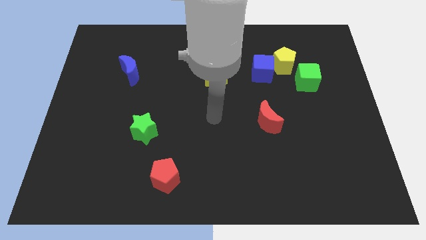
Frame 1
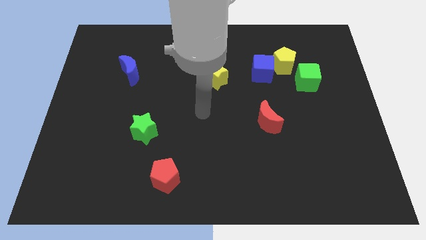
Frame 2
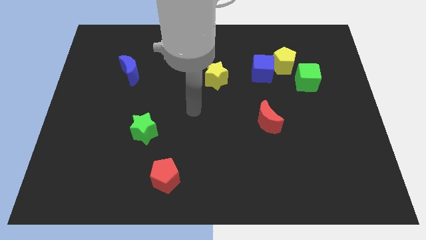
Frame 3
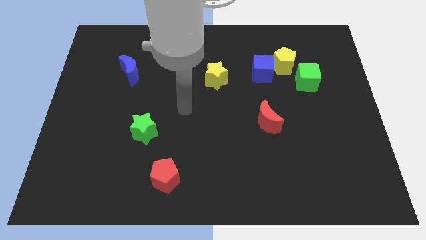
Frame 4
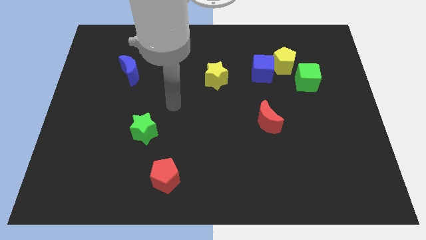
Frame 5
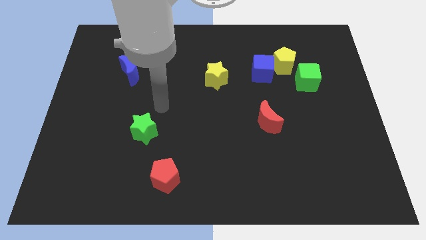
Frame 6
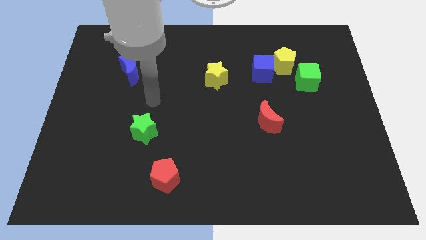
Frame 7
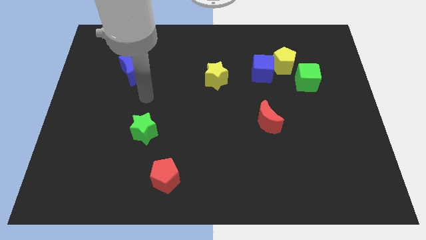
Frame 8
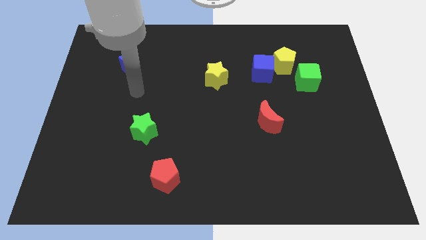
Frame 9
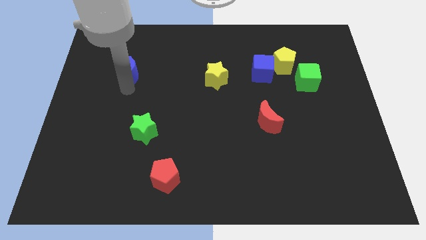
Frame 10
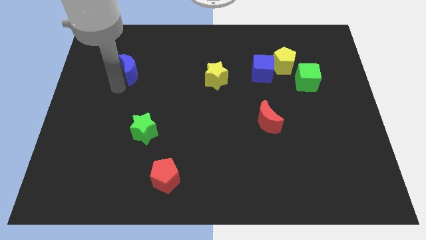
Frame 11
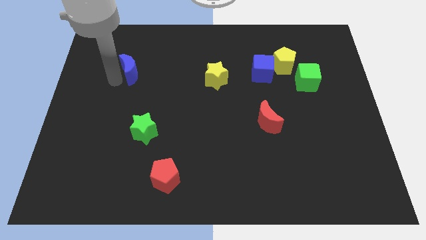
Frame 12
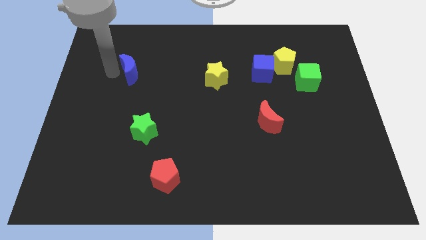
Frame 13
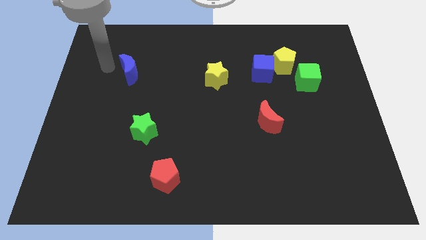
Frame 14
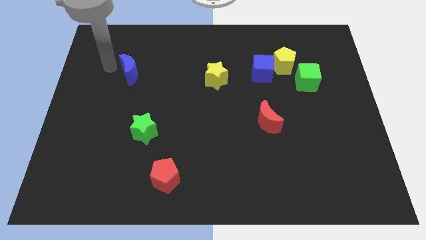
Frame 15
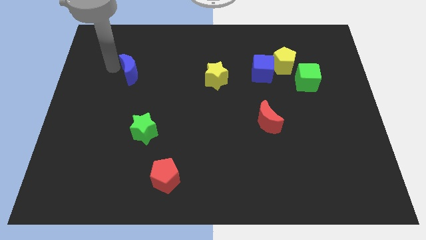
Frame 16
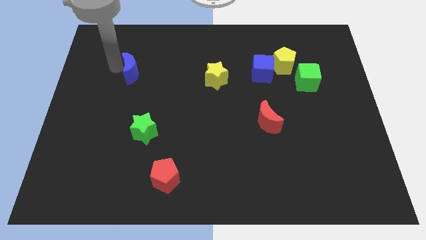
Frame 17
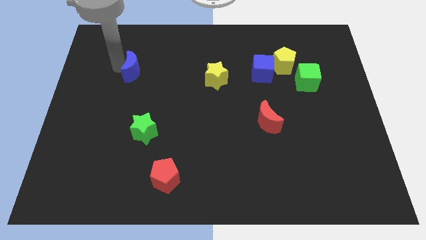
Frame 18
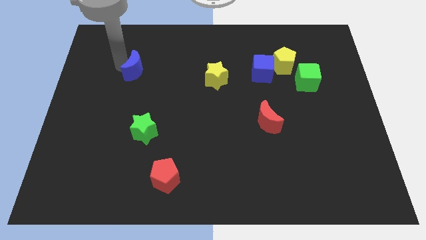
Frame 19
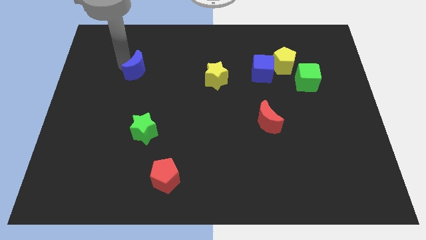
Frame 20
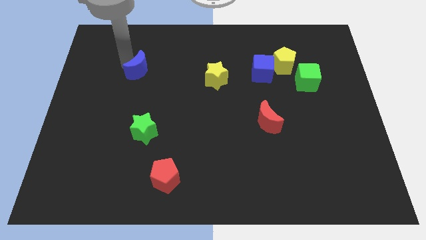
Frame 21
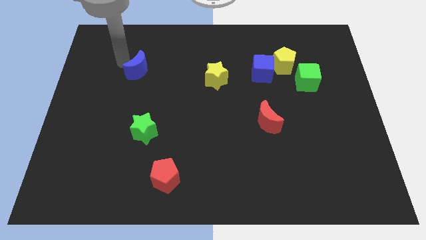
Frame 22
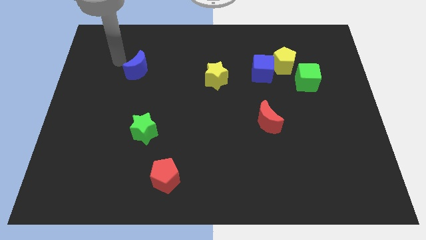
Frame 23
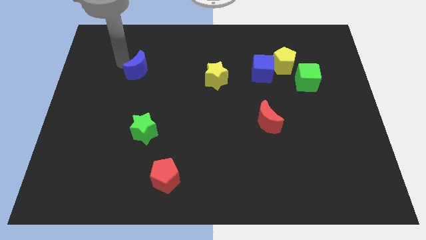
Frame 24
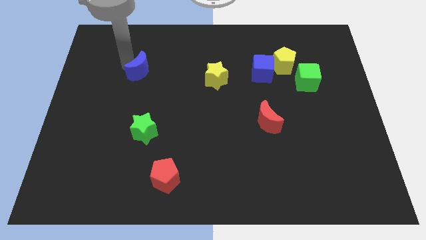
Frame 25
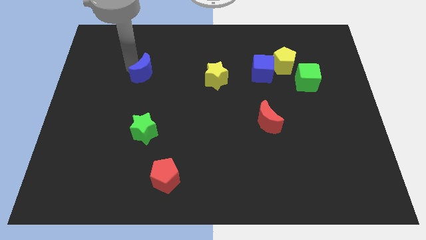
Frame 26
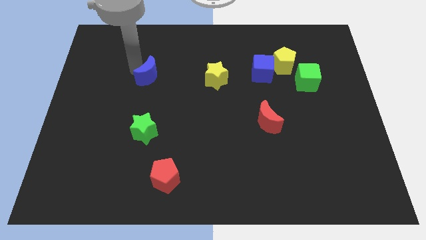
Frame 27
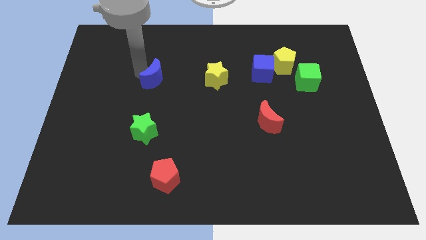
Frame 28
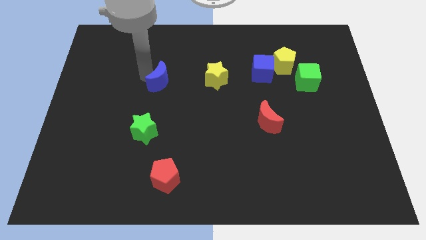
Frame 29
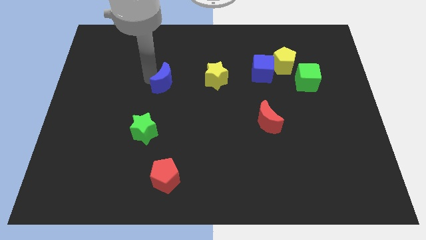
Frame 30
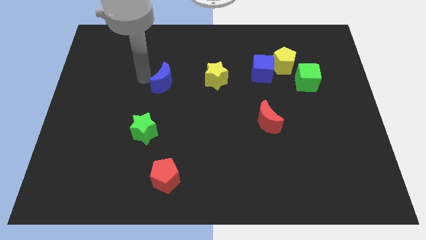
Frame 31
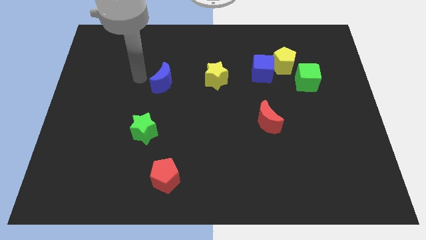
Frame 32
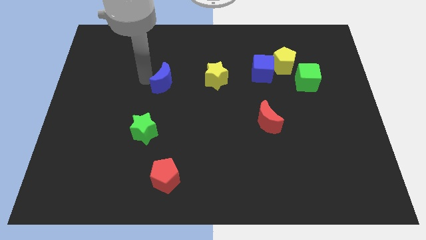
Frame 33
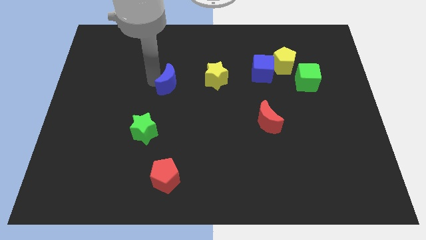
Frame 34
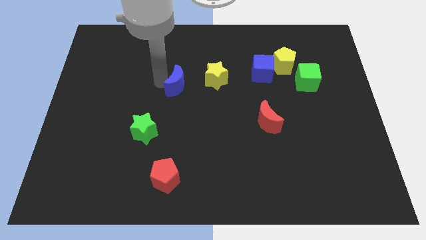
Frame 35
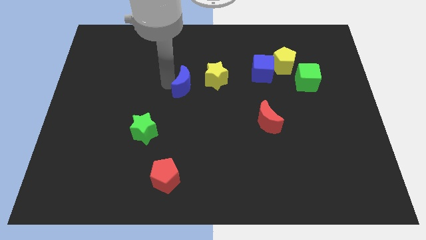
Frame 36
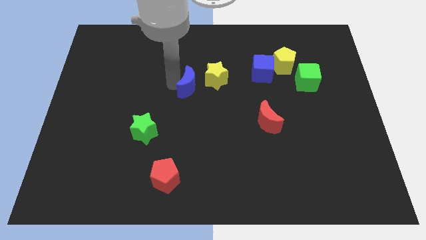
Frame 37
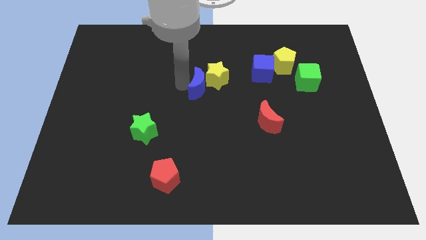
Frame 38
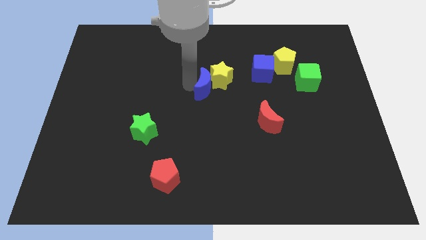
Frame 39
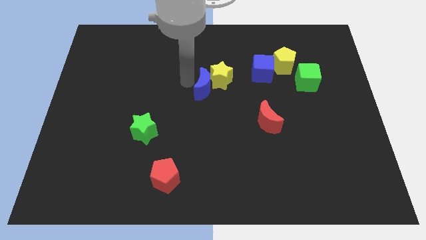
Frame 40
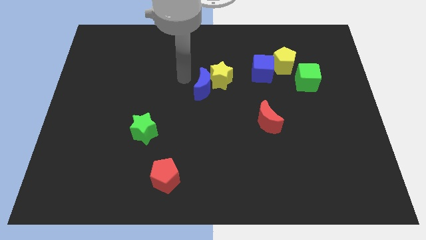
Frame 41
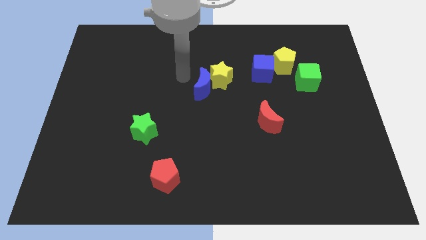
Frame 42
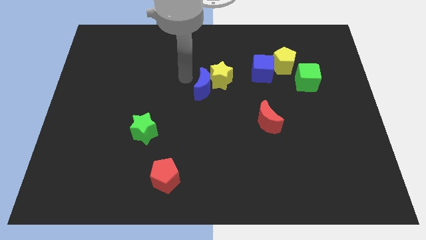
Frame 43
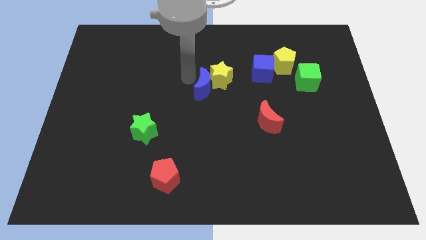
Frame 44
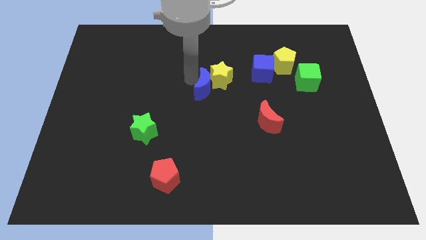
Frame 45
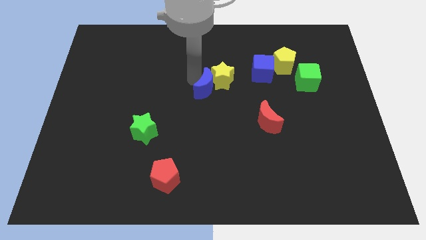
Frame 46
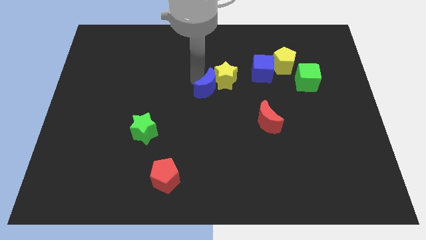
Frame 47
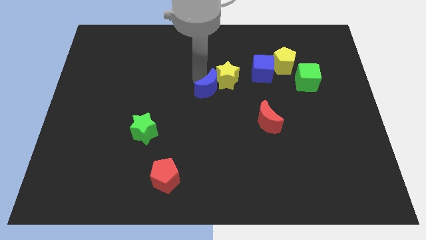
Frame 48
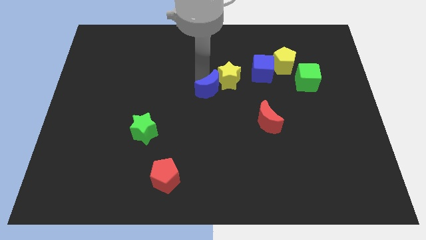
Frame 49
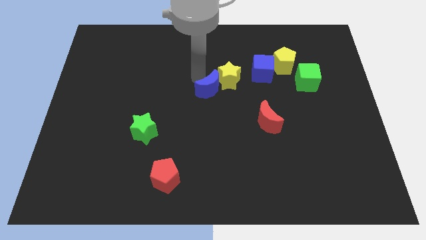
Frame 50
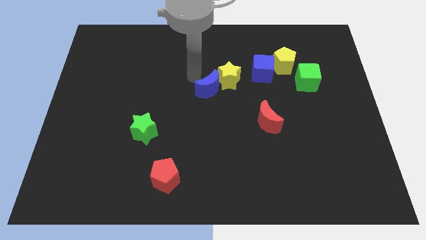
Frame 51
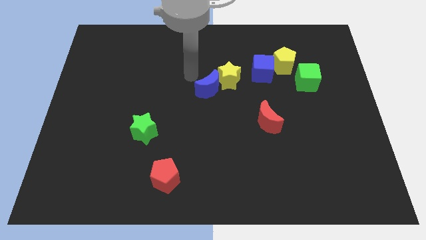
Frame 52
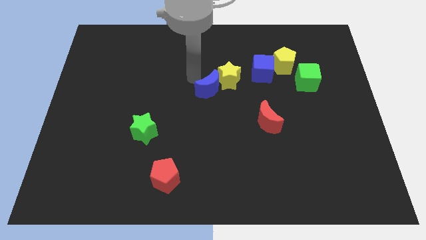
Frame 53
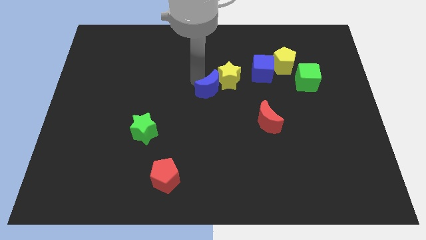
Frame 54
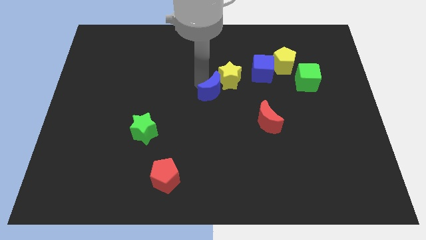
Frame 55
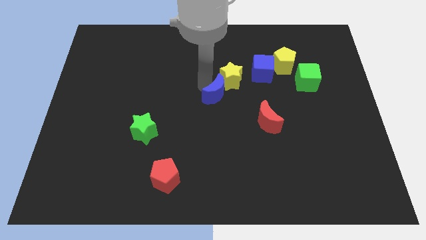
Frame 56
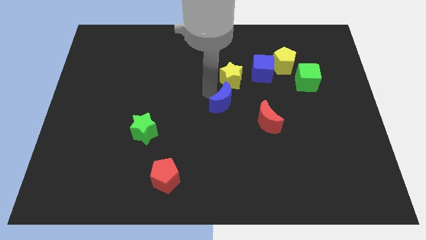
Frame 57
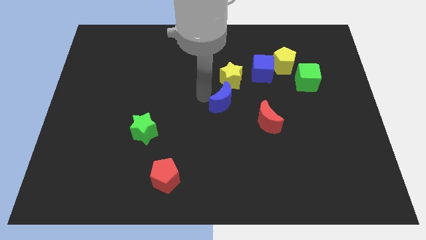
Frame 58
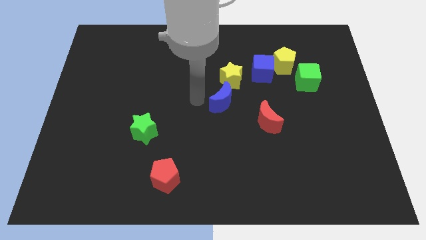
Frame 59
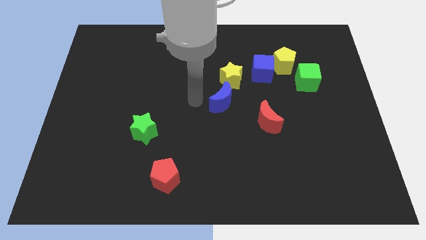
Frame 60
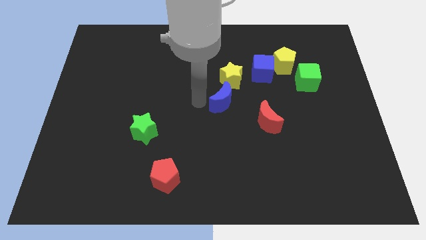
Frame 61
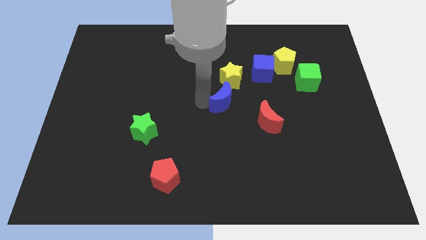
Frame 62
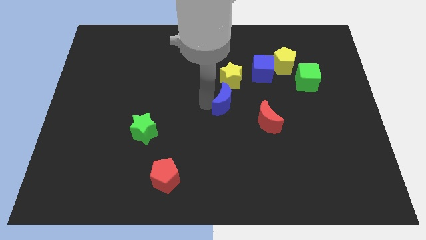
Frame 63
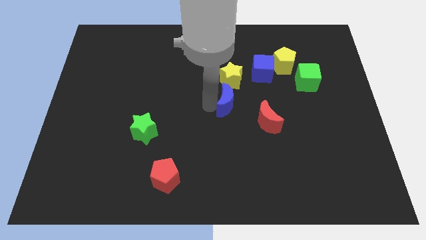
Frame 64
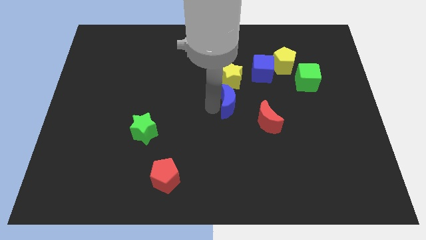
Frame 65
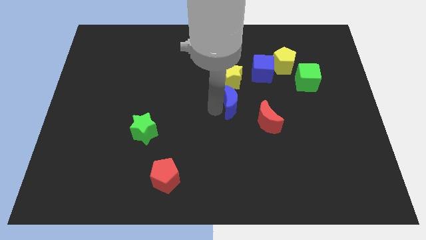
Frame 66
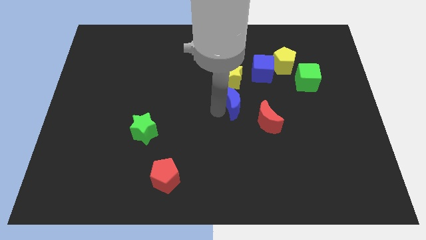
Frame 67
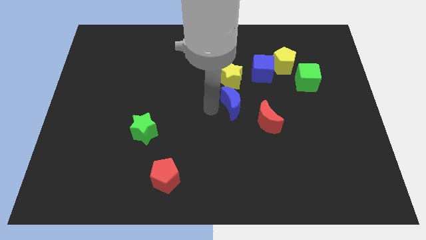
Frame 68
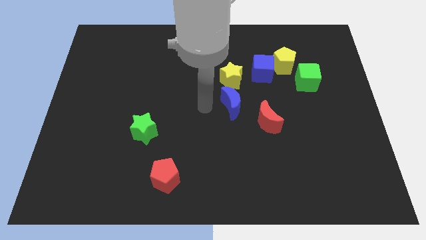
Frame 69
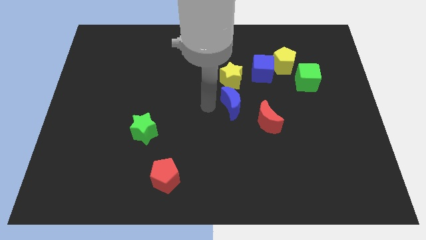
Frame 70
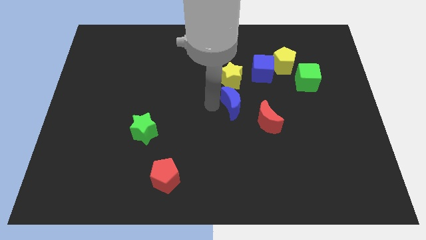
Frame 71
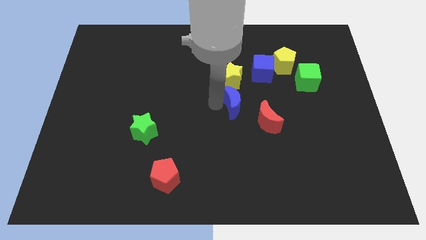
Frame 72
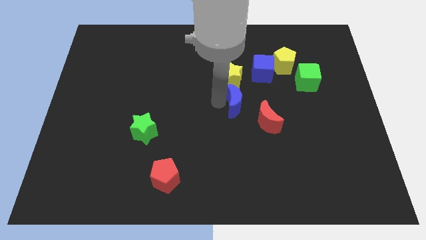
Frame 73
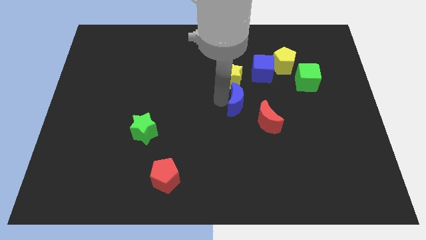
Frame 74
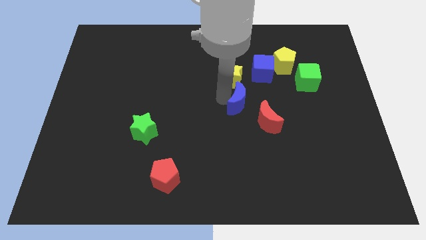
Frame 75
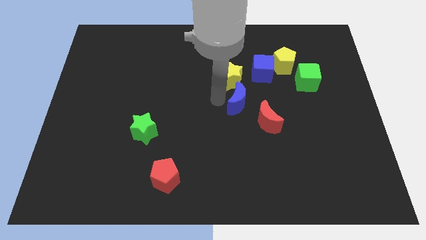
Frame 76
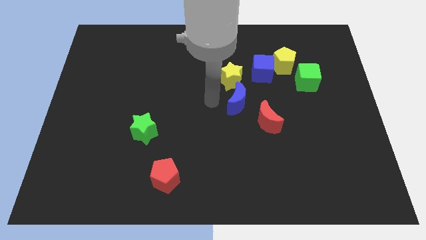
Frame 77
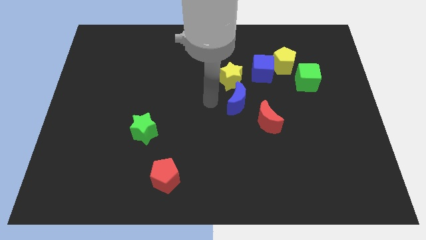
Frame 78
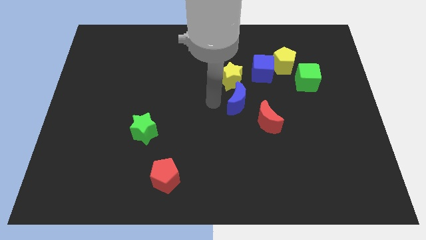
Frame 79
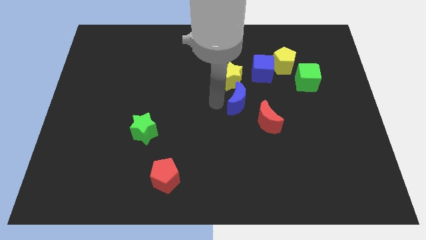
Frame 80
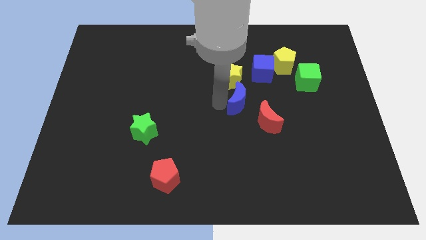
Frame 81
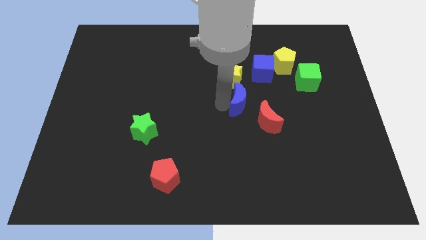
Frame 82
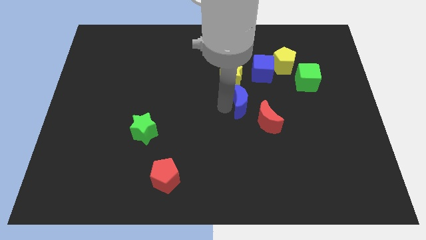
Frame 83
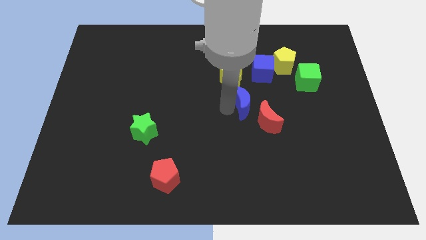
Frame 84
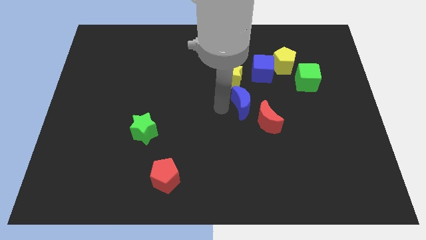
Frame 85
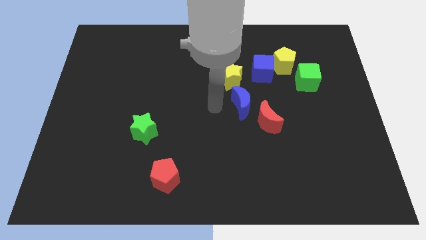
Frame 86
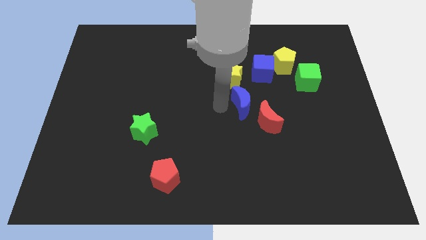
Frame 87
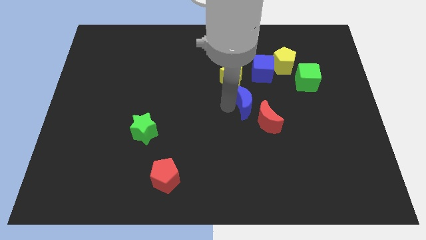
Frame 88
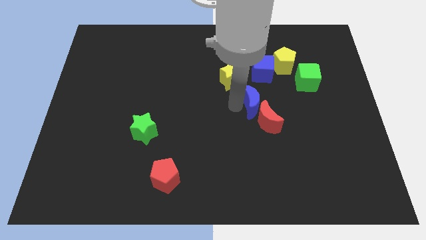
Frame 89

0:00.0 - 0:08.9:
put the blue moon below the blue cube
